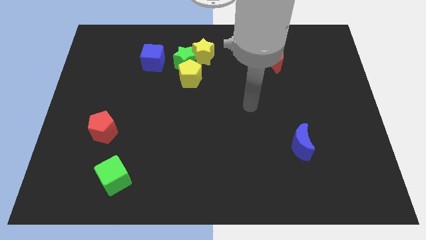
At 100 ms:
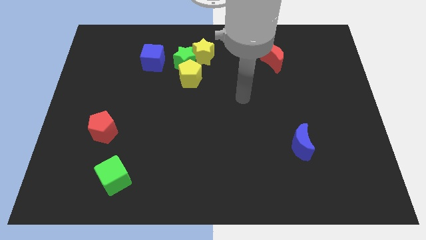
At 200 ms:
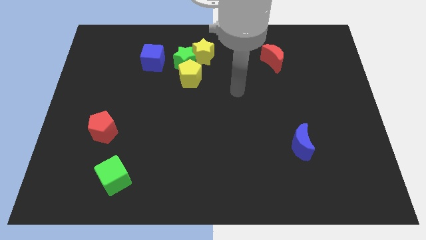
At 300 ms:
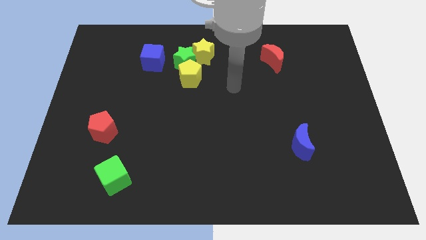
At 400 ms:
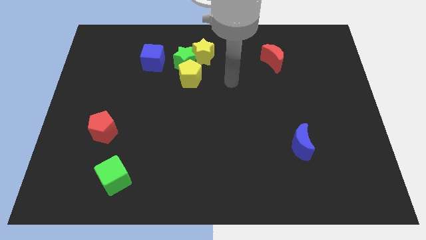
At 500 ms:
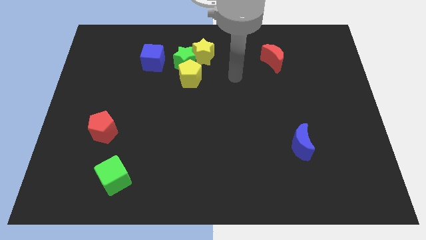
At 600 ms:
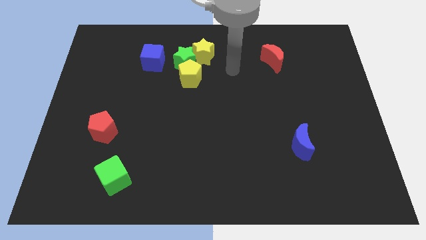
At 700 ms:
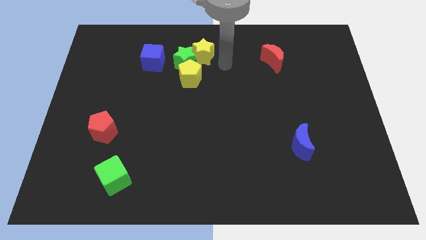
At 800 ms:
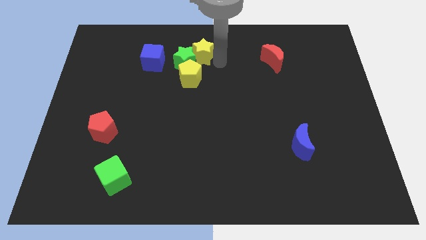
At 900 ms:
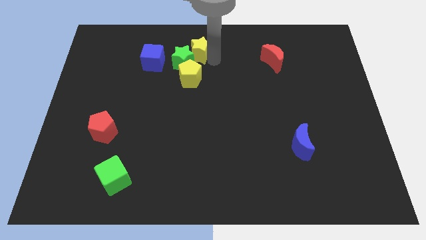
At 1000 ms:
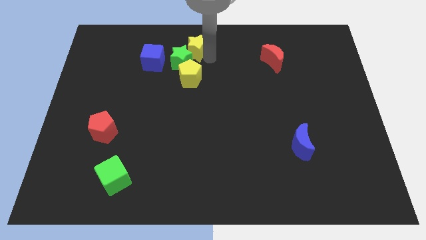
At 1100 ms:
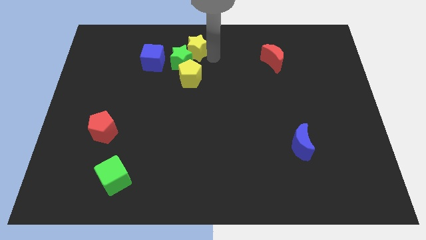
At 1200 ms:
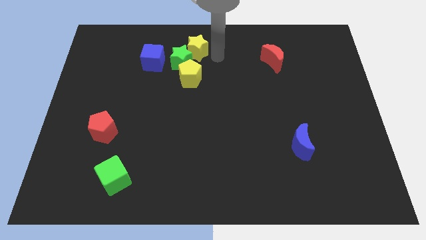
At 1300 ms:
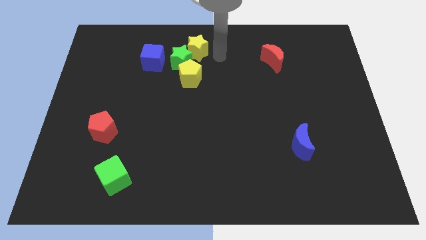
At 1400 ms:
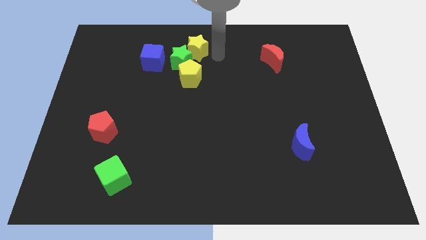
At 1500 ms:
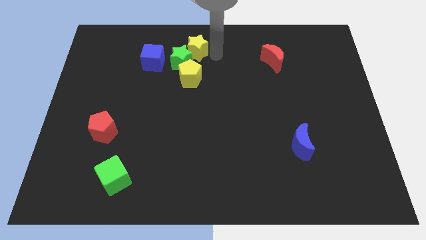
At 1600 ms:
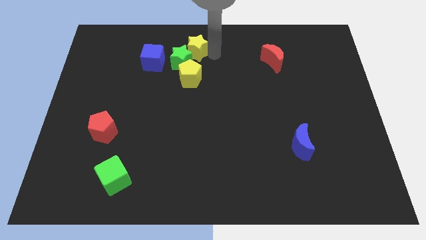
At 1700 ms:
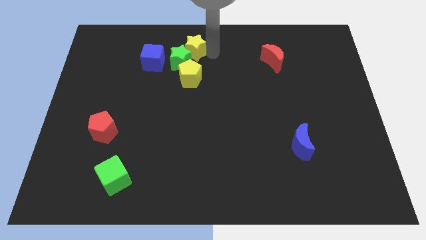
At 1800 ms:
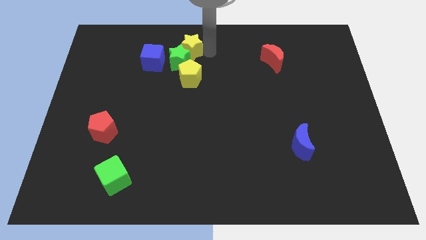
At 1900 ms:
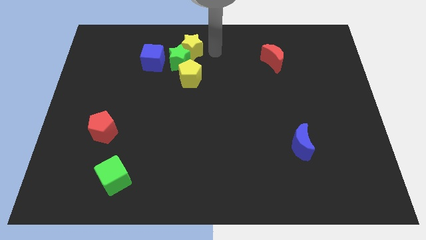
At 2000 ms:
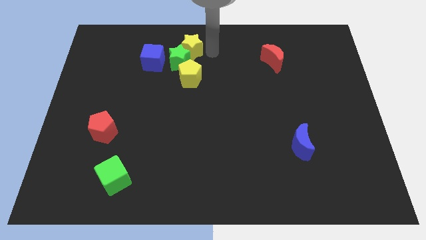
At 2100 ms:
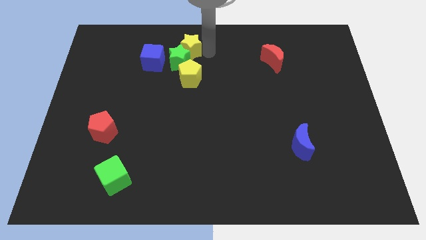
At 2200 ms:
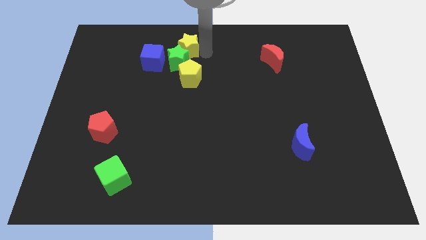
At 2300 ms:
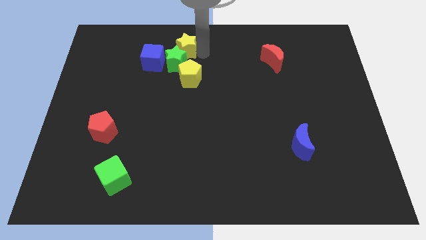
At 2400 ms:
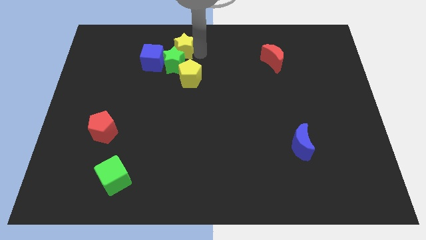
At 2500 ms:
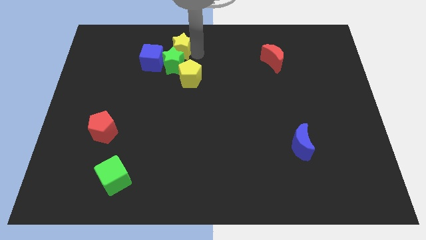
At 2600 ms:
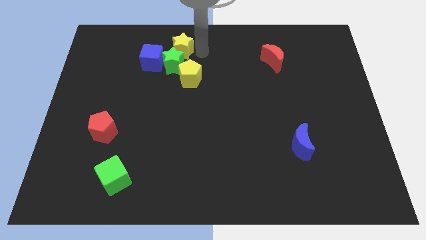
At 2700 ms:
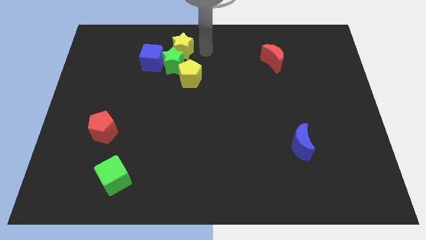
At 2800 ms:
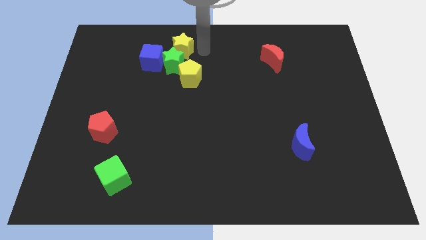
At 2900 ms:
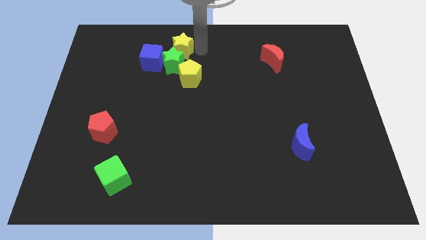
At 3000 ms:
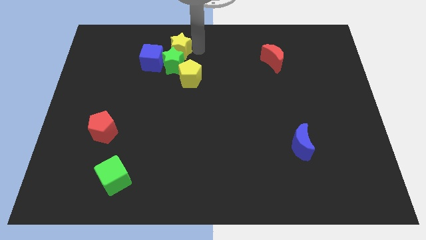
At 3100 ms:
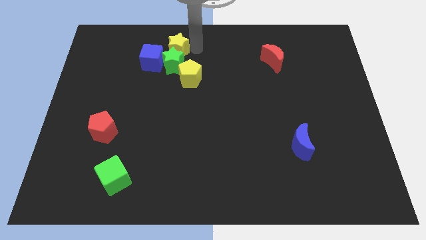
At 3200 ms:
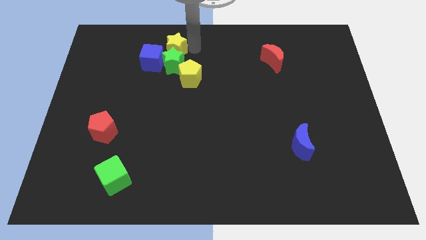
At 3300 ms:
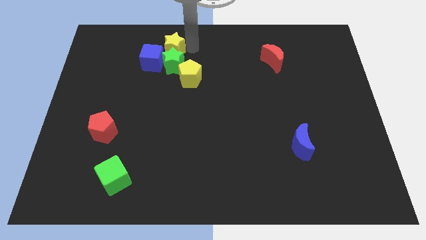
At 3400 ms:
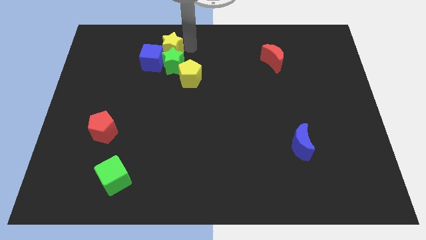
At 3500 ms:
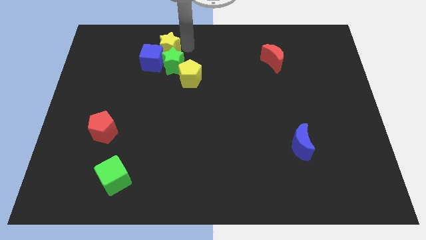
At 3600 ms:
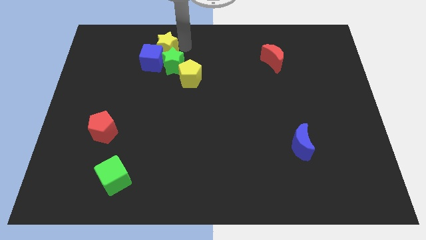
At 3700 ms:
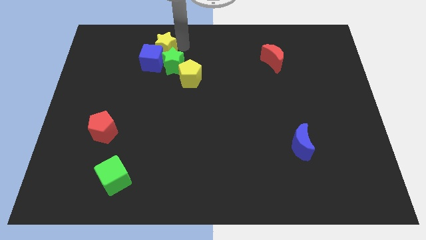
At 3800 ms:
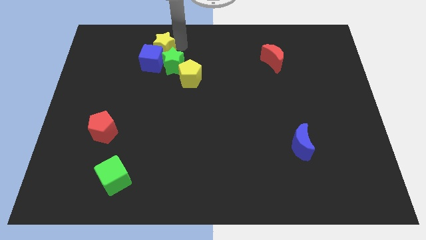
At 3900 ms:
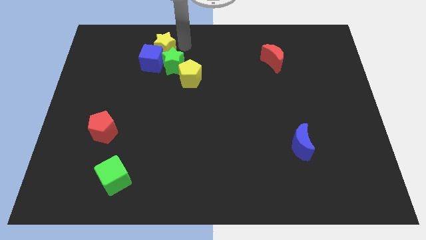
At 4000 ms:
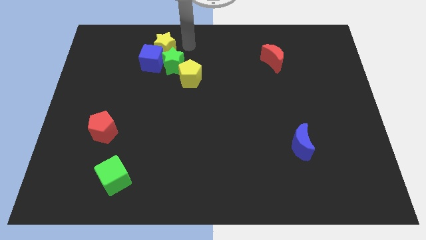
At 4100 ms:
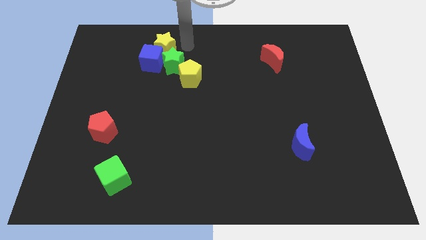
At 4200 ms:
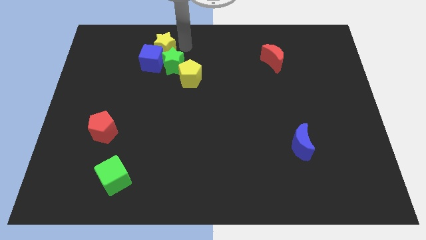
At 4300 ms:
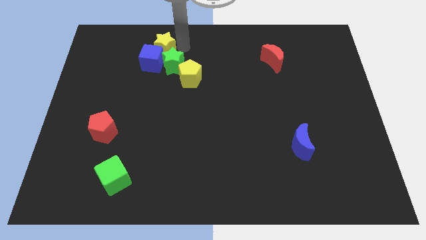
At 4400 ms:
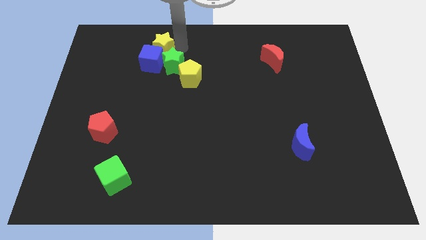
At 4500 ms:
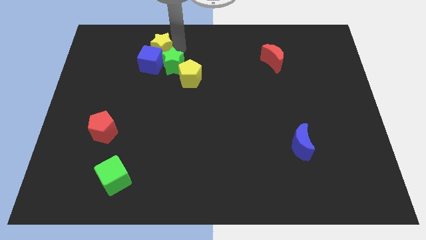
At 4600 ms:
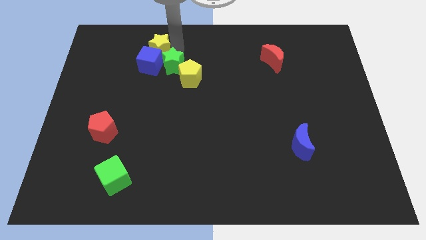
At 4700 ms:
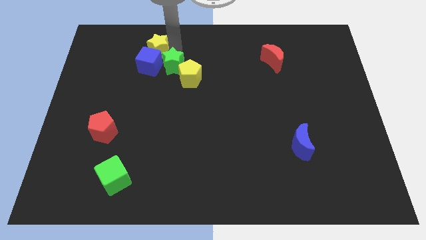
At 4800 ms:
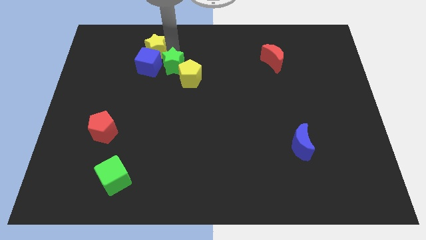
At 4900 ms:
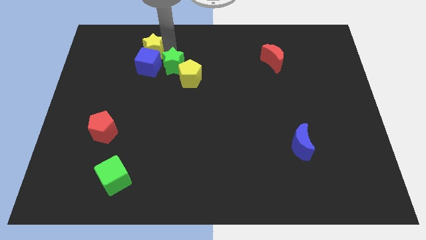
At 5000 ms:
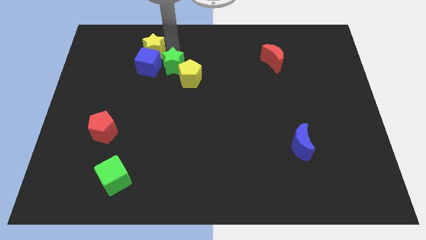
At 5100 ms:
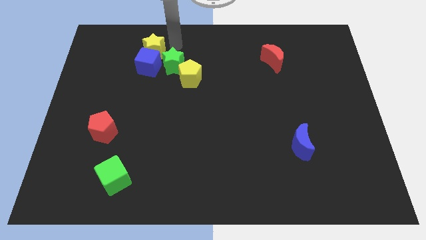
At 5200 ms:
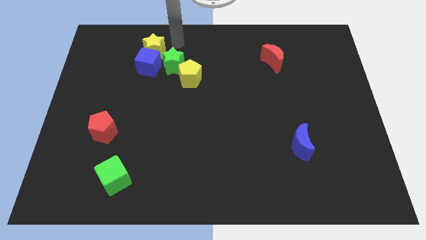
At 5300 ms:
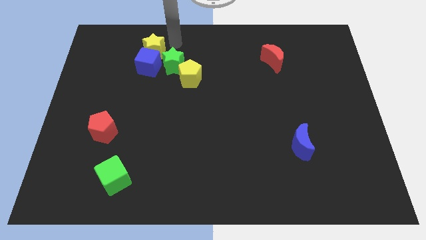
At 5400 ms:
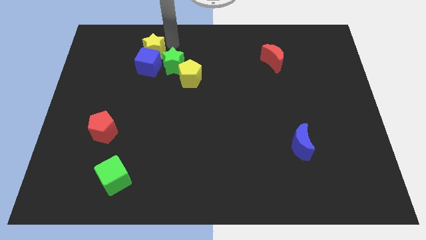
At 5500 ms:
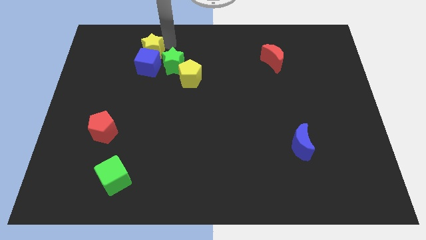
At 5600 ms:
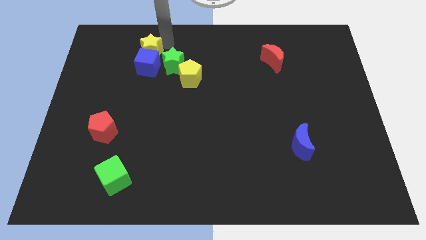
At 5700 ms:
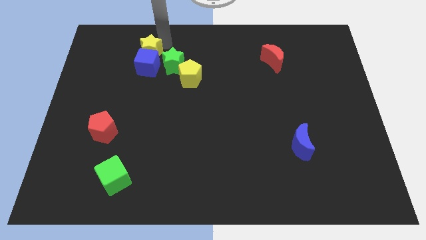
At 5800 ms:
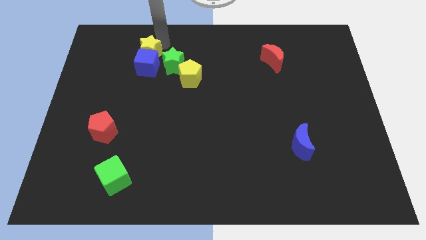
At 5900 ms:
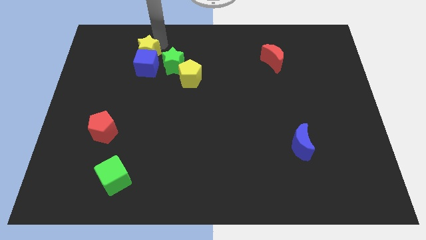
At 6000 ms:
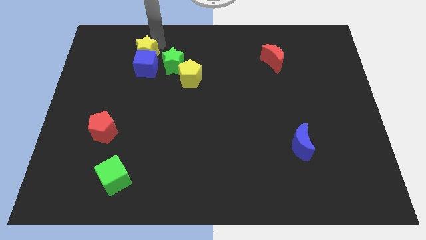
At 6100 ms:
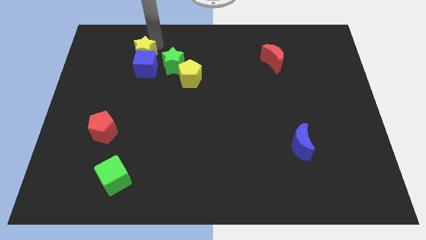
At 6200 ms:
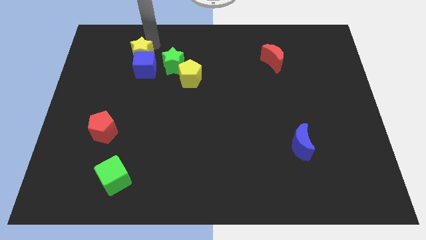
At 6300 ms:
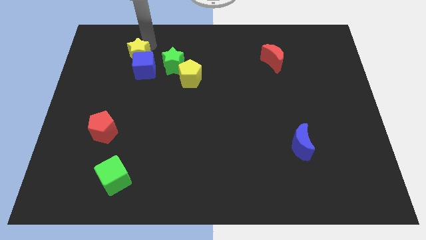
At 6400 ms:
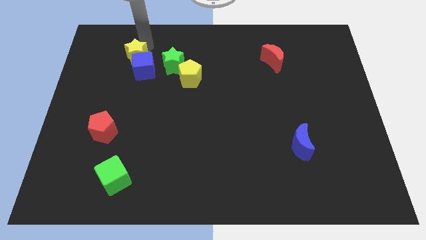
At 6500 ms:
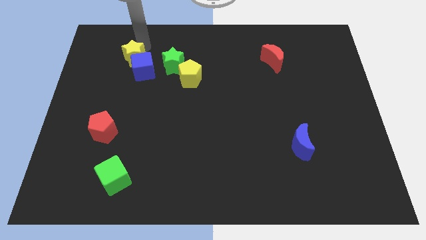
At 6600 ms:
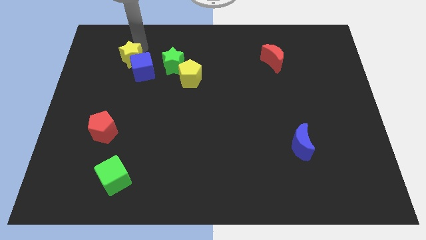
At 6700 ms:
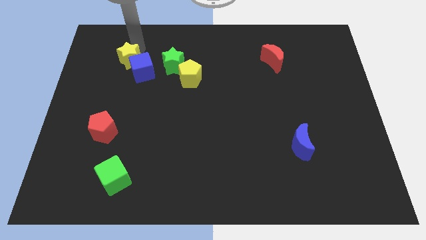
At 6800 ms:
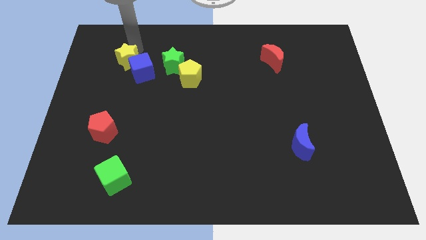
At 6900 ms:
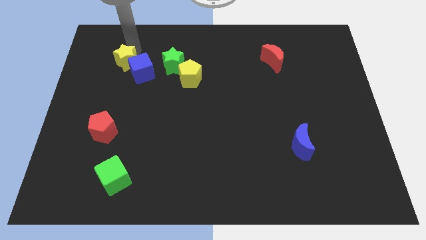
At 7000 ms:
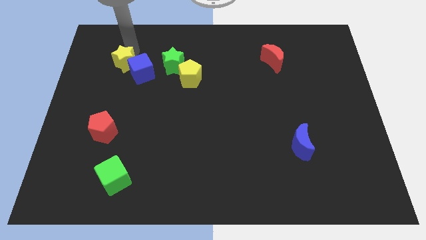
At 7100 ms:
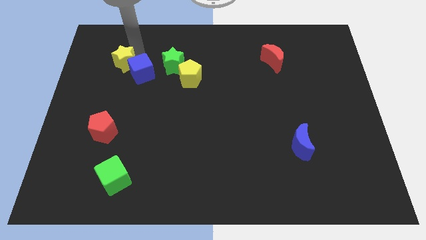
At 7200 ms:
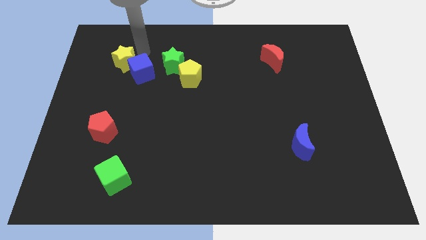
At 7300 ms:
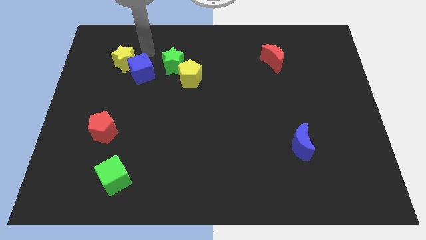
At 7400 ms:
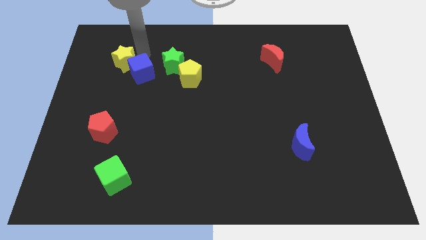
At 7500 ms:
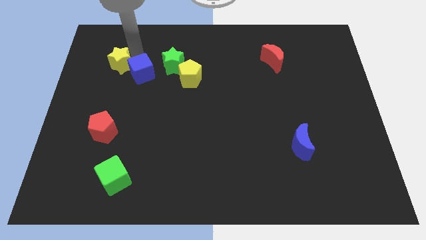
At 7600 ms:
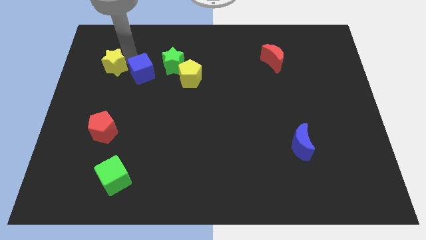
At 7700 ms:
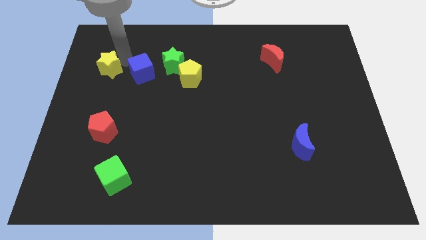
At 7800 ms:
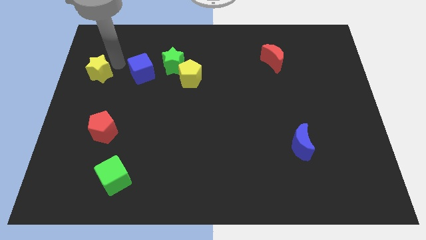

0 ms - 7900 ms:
push the yellow star to the left side of the board
